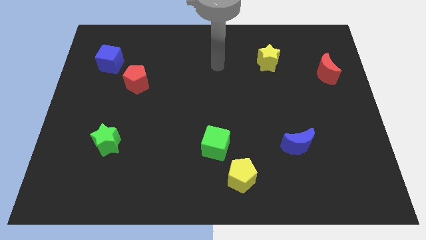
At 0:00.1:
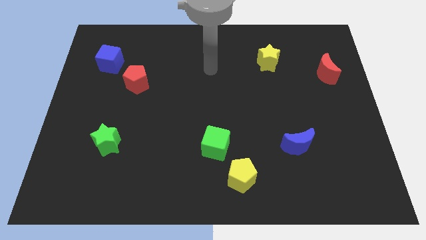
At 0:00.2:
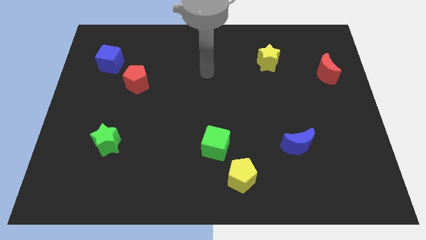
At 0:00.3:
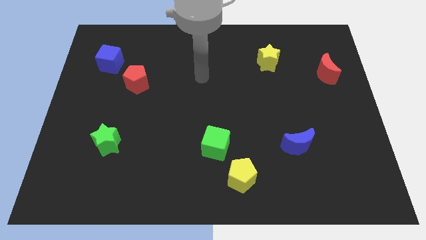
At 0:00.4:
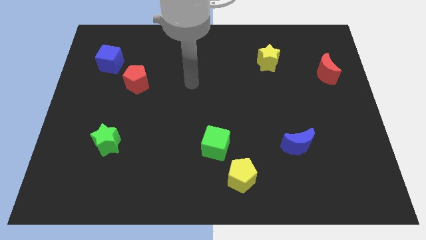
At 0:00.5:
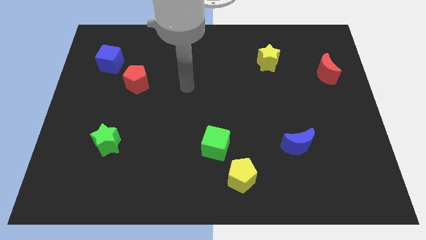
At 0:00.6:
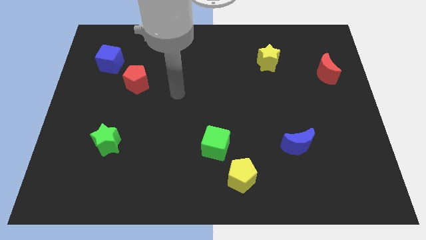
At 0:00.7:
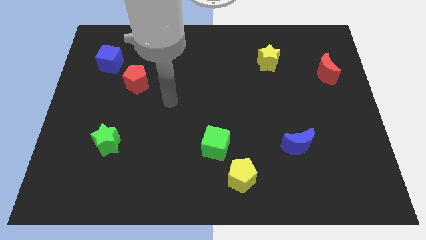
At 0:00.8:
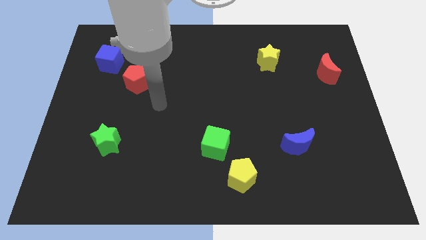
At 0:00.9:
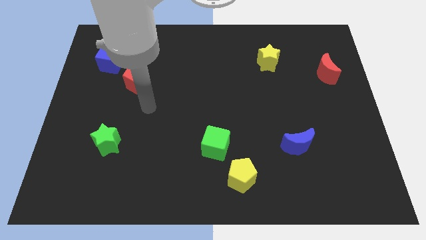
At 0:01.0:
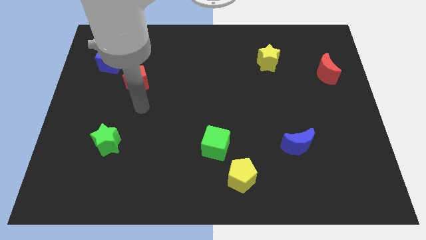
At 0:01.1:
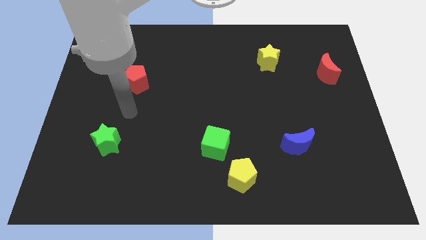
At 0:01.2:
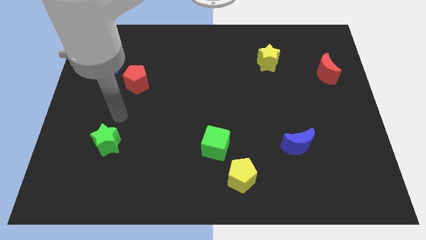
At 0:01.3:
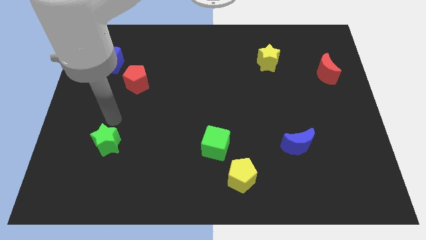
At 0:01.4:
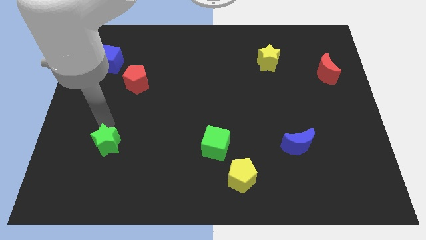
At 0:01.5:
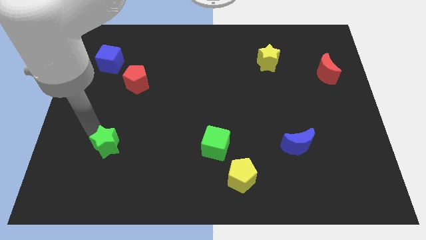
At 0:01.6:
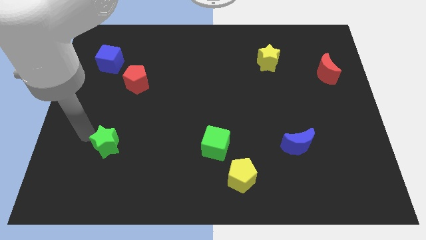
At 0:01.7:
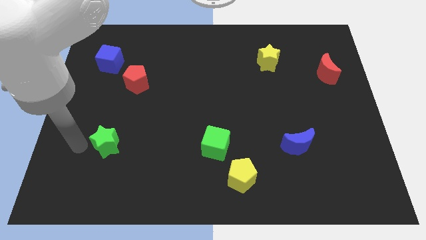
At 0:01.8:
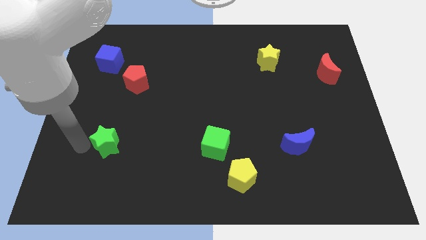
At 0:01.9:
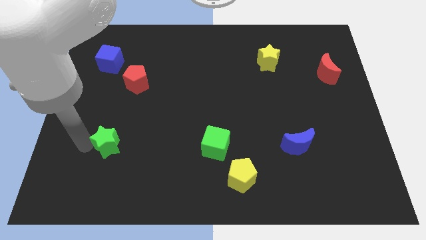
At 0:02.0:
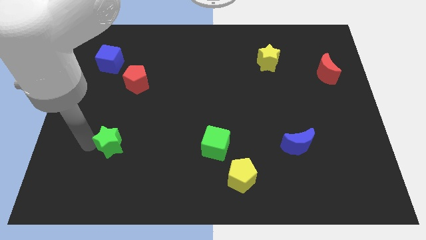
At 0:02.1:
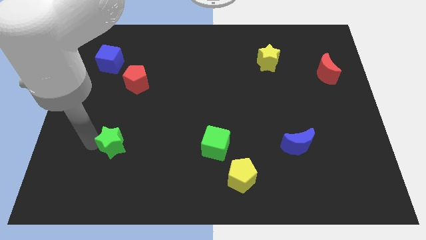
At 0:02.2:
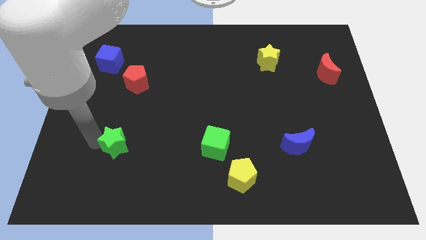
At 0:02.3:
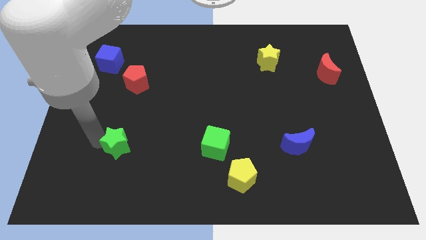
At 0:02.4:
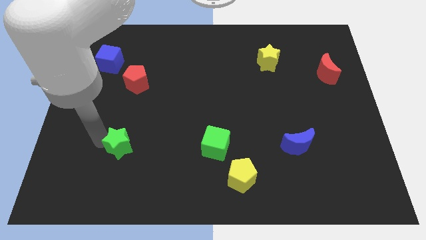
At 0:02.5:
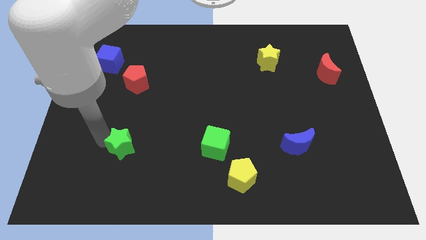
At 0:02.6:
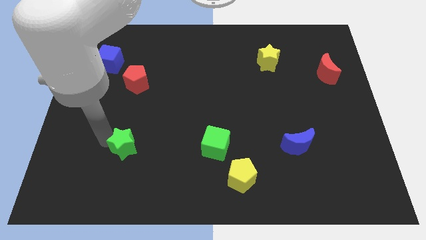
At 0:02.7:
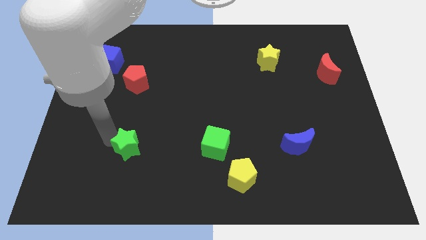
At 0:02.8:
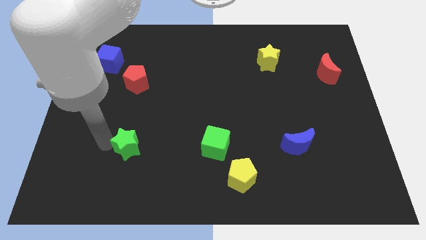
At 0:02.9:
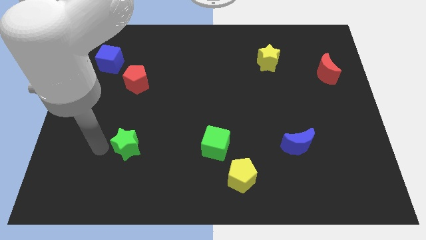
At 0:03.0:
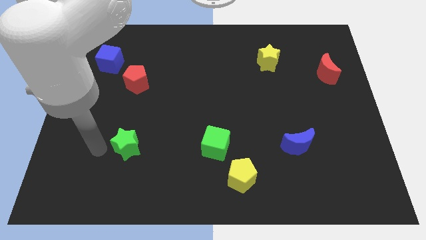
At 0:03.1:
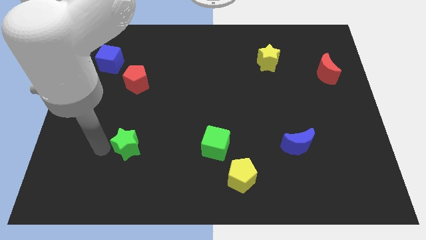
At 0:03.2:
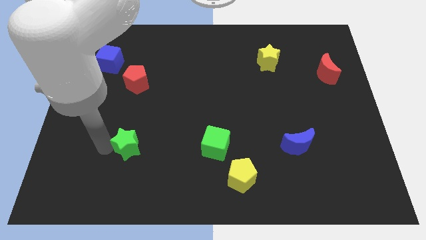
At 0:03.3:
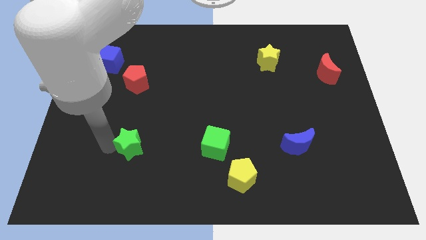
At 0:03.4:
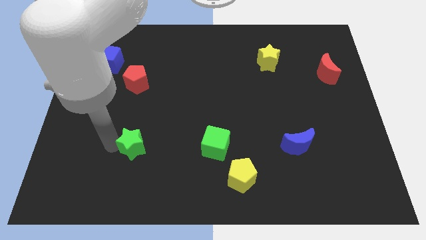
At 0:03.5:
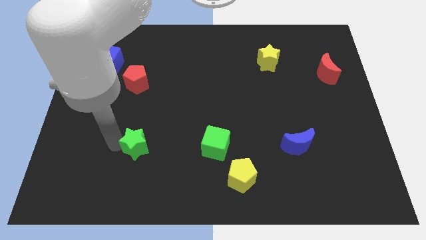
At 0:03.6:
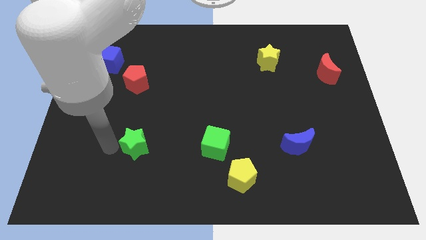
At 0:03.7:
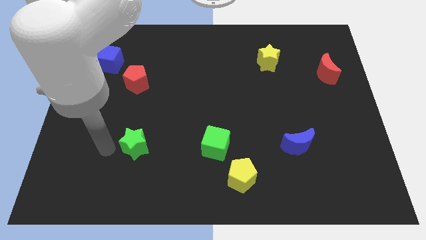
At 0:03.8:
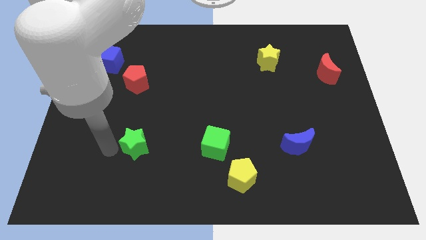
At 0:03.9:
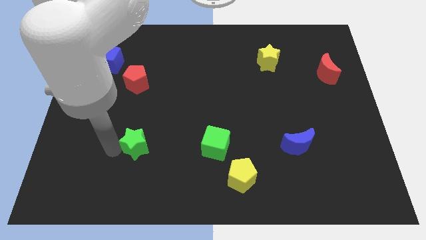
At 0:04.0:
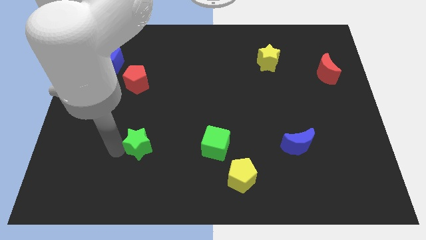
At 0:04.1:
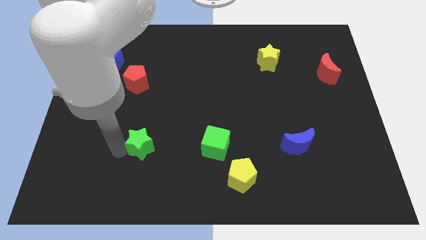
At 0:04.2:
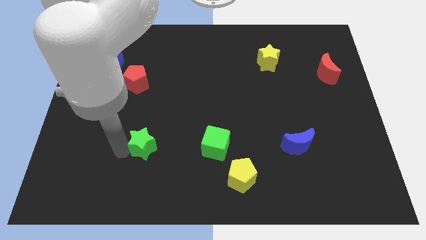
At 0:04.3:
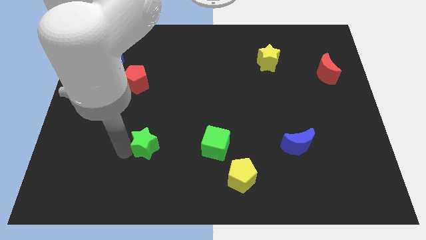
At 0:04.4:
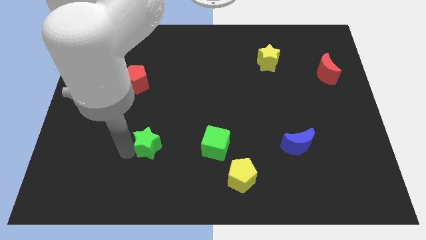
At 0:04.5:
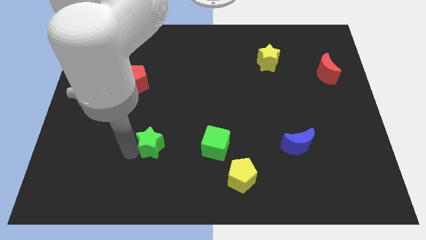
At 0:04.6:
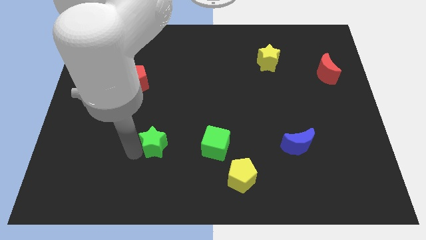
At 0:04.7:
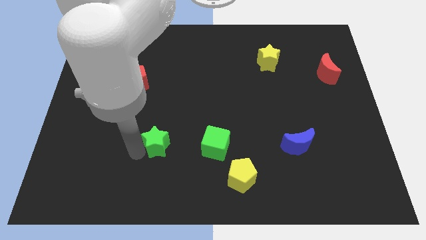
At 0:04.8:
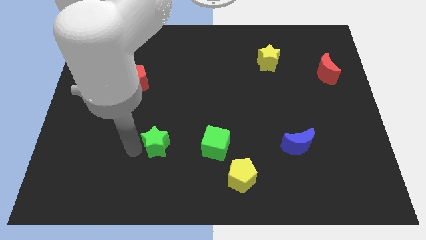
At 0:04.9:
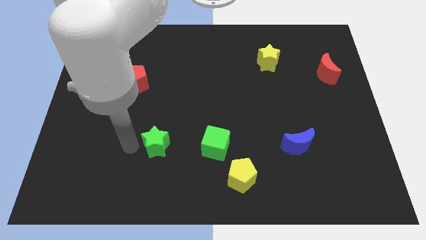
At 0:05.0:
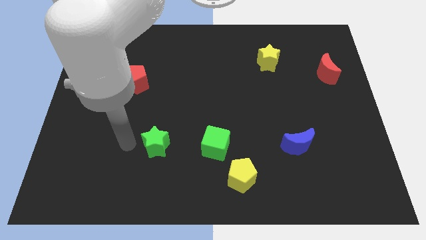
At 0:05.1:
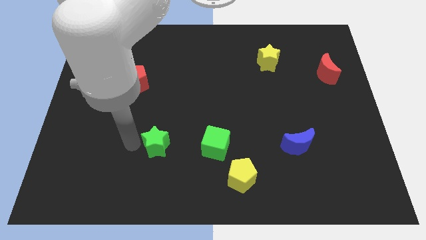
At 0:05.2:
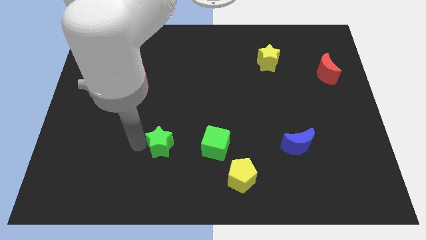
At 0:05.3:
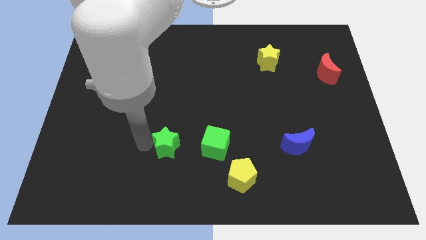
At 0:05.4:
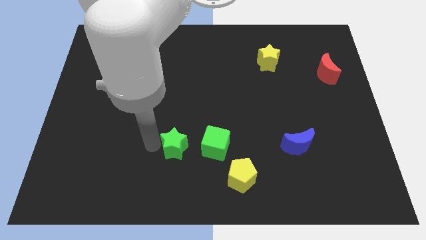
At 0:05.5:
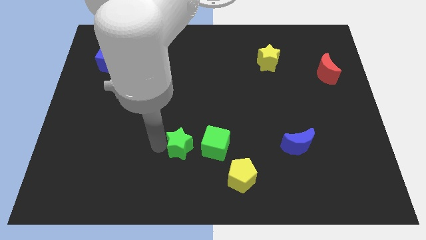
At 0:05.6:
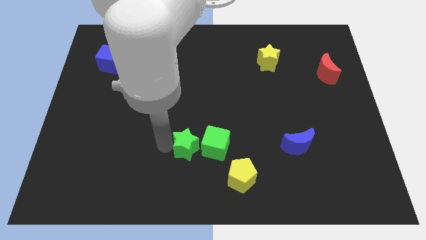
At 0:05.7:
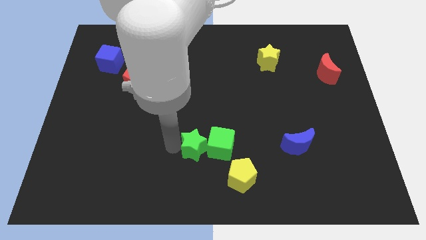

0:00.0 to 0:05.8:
push the green star close to the green cube

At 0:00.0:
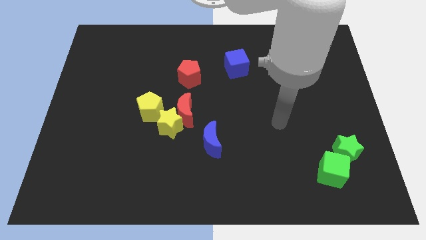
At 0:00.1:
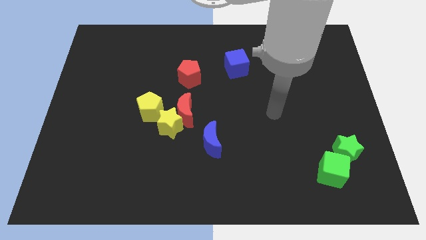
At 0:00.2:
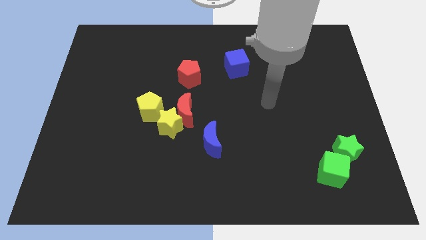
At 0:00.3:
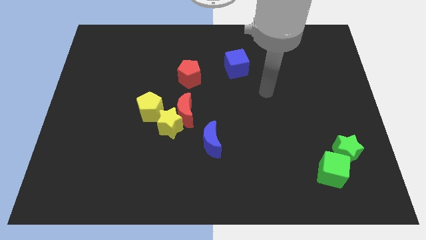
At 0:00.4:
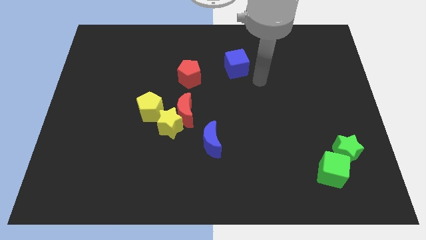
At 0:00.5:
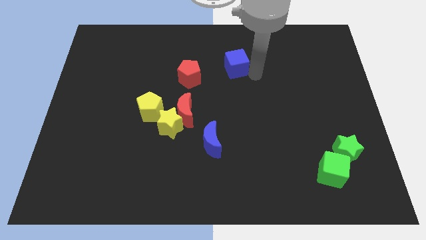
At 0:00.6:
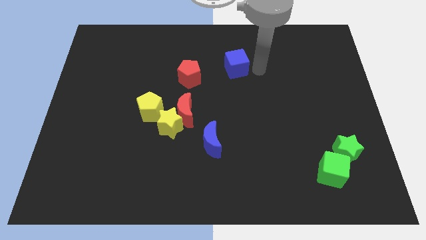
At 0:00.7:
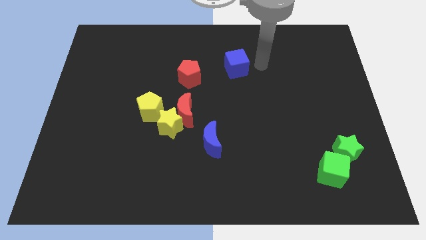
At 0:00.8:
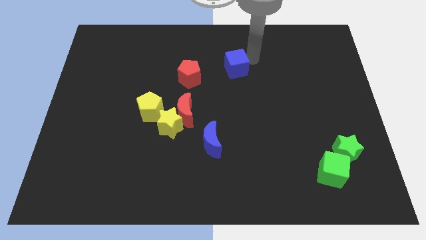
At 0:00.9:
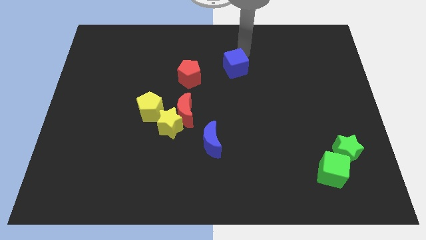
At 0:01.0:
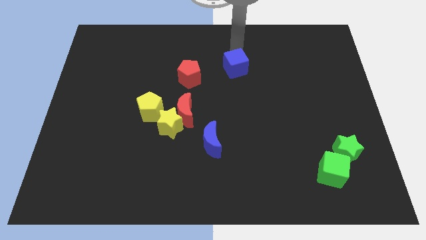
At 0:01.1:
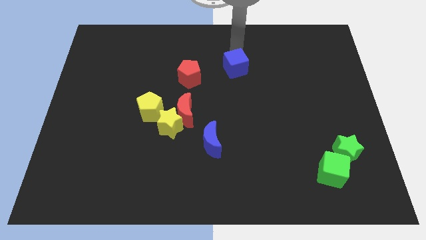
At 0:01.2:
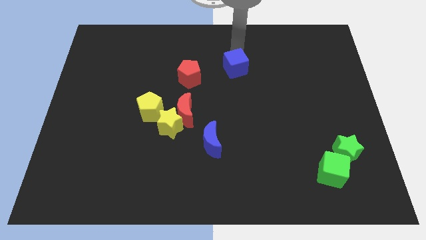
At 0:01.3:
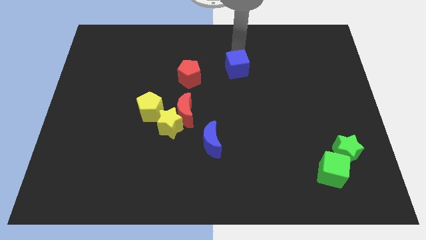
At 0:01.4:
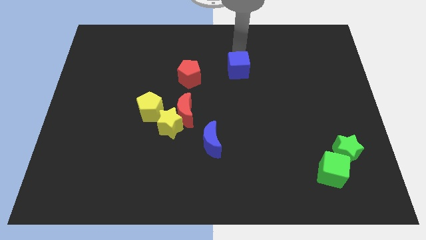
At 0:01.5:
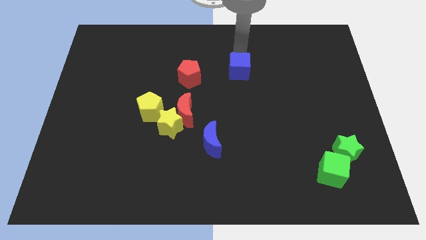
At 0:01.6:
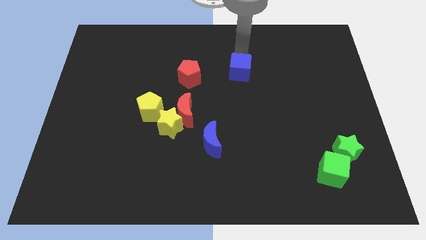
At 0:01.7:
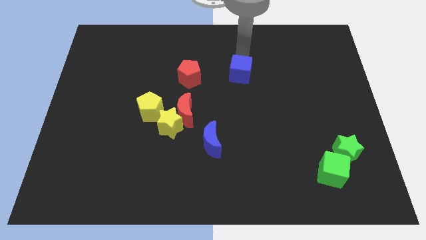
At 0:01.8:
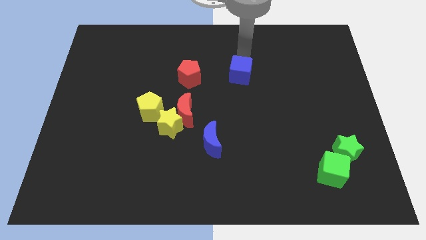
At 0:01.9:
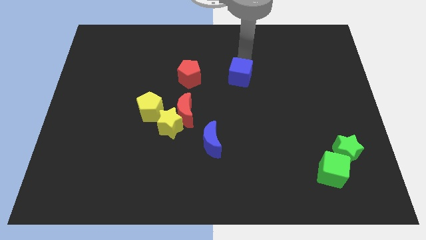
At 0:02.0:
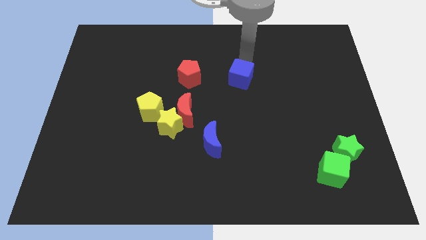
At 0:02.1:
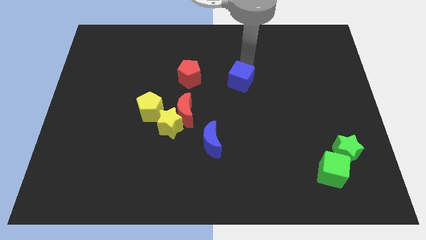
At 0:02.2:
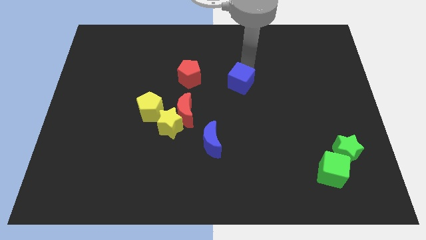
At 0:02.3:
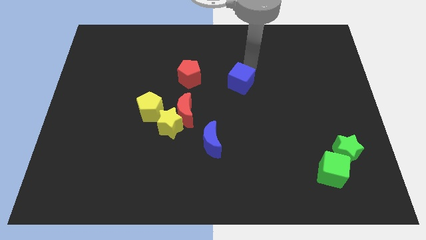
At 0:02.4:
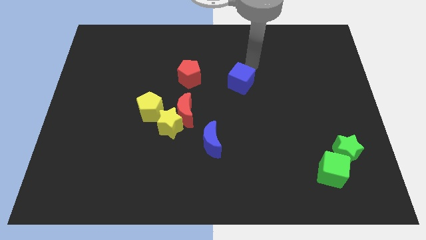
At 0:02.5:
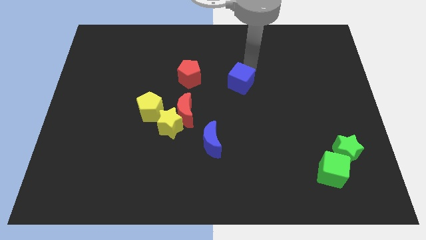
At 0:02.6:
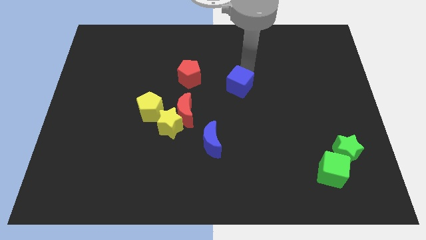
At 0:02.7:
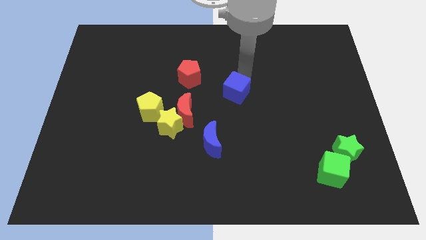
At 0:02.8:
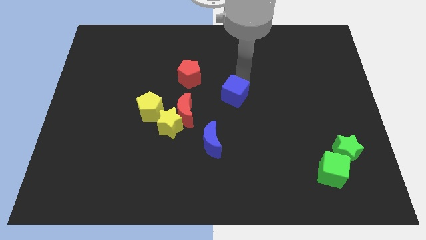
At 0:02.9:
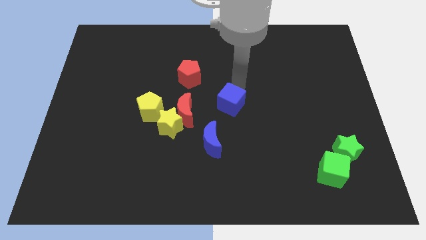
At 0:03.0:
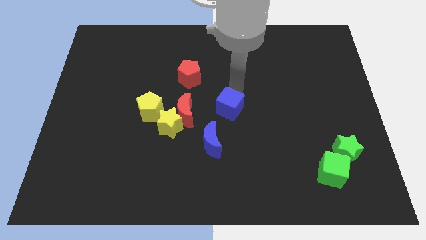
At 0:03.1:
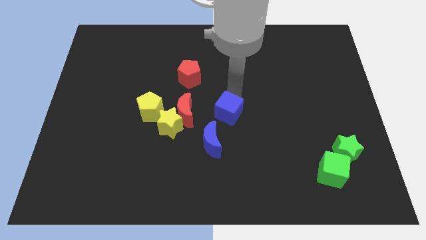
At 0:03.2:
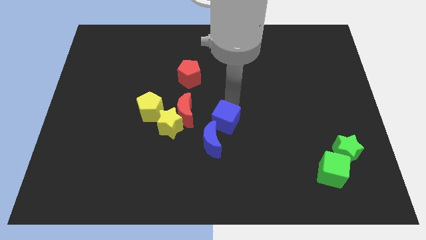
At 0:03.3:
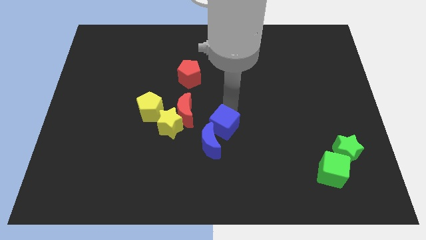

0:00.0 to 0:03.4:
move the blue cube close to the blue moon
